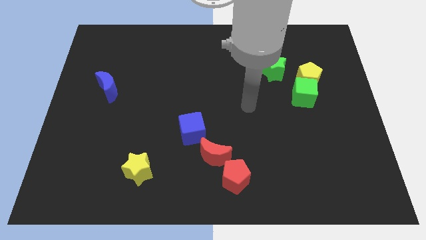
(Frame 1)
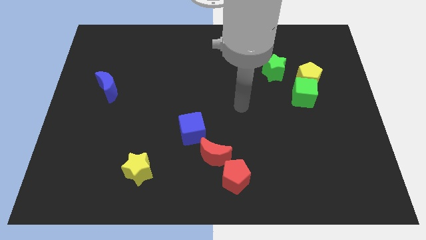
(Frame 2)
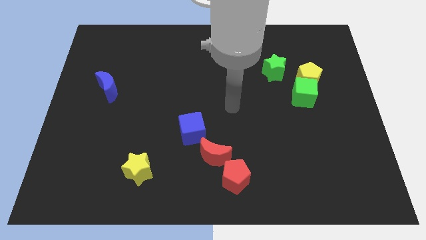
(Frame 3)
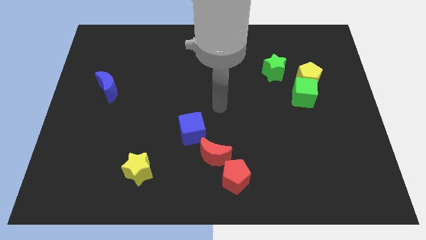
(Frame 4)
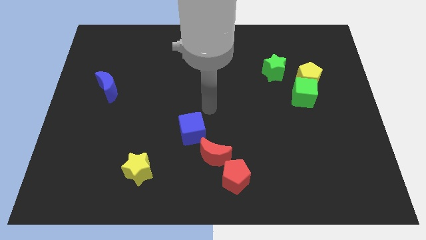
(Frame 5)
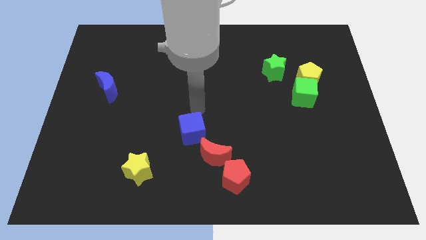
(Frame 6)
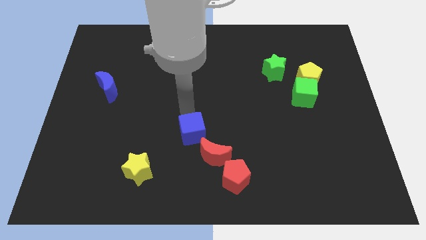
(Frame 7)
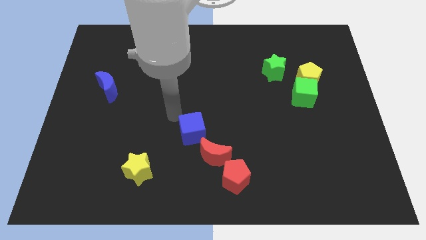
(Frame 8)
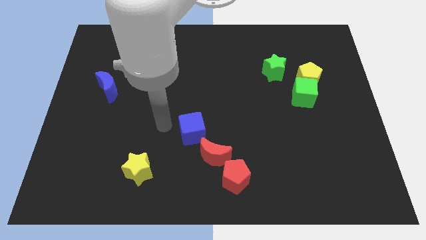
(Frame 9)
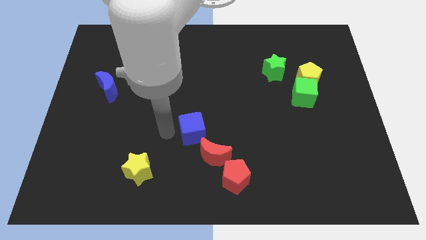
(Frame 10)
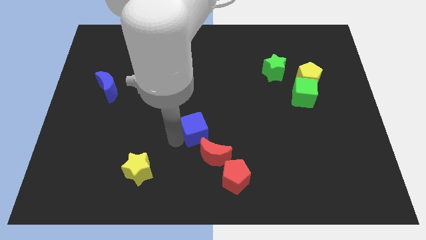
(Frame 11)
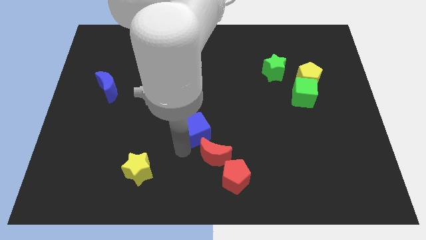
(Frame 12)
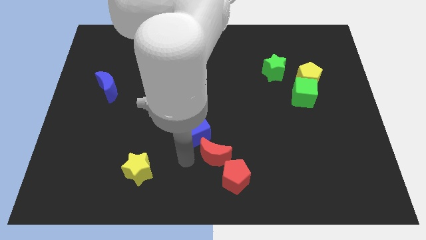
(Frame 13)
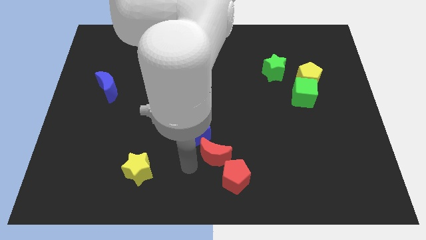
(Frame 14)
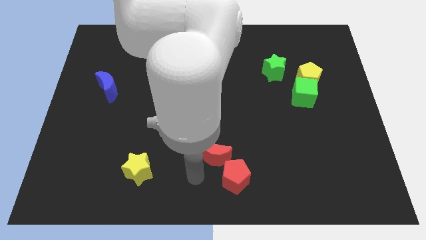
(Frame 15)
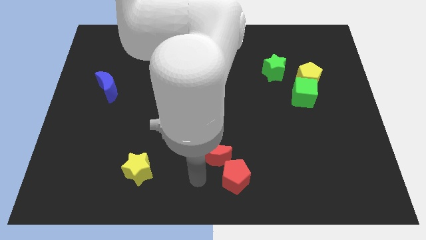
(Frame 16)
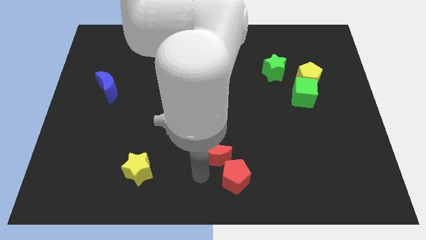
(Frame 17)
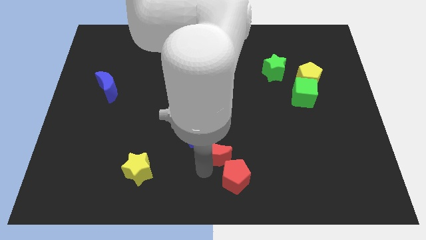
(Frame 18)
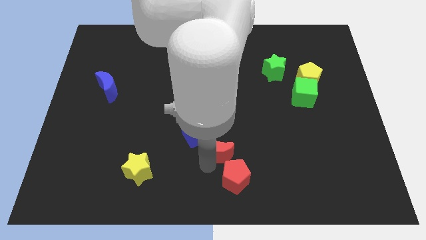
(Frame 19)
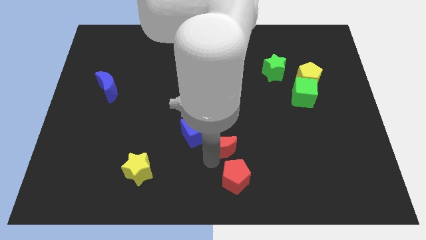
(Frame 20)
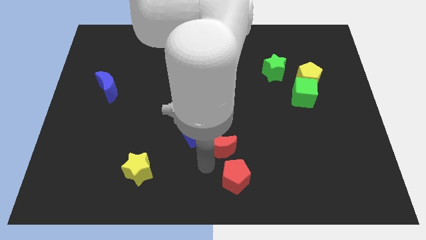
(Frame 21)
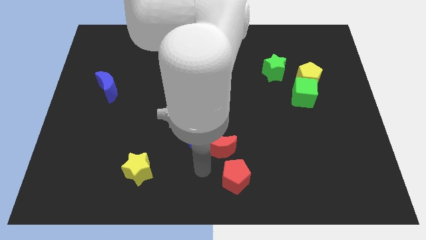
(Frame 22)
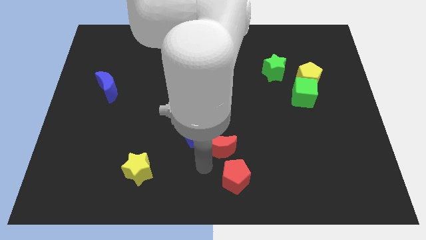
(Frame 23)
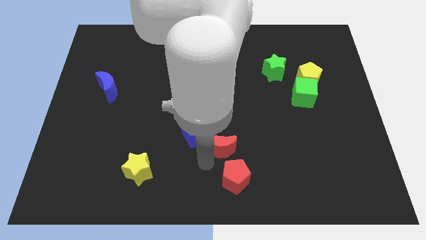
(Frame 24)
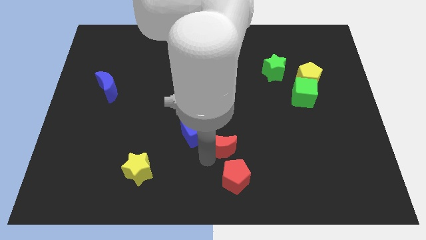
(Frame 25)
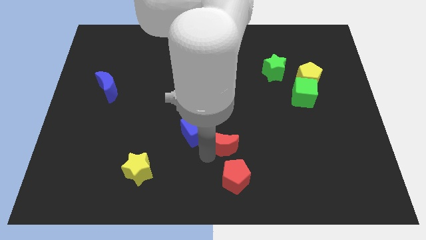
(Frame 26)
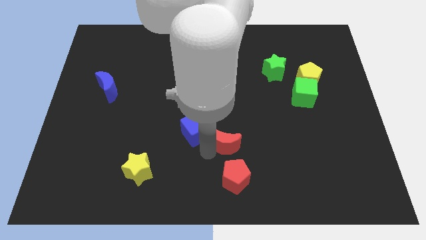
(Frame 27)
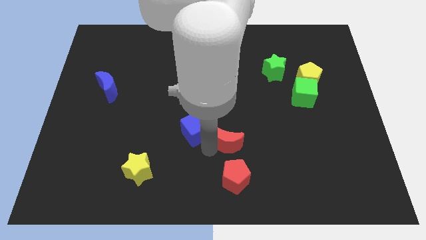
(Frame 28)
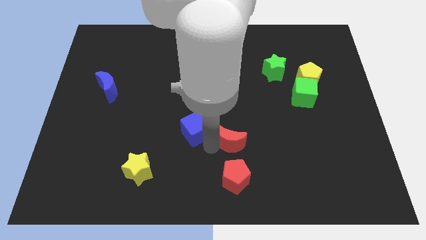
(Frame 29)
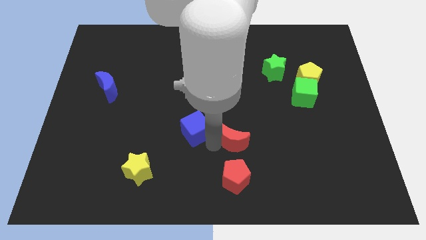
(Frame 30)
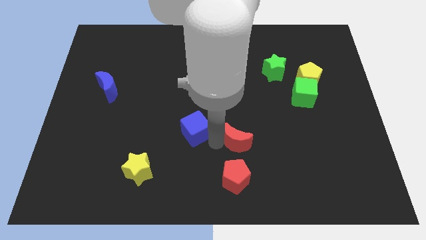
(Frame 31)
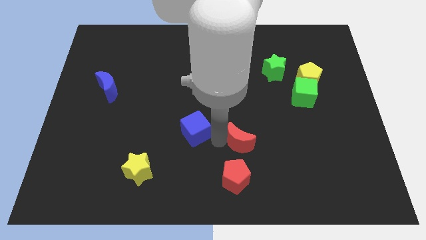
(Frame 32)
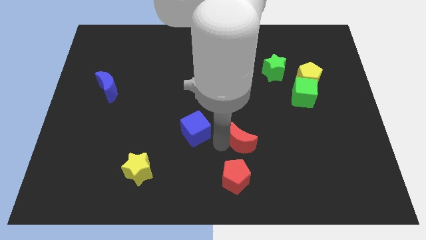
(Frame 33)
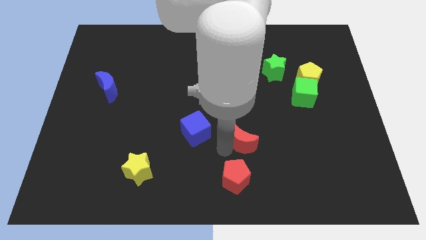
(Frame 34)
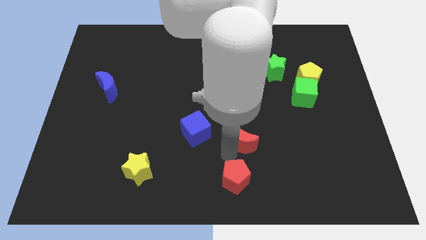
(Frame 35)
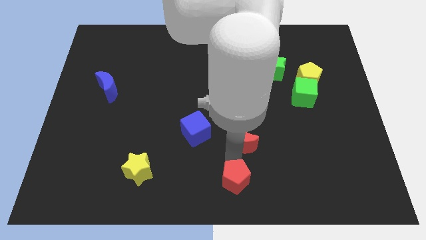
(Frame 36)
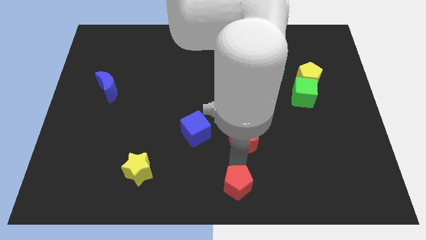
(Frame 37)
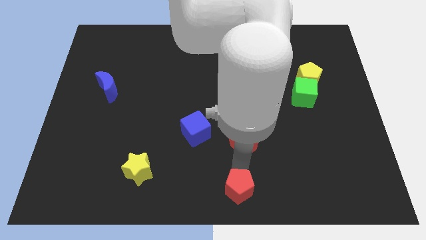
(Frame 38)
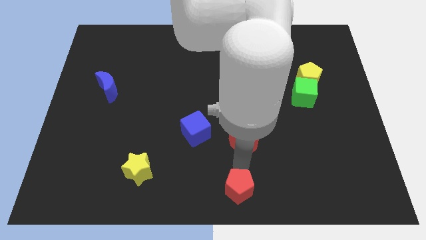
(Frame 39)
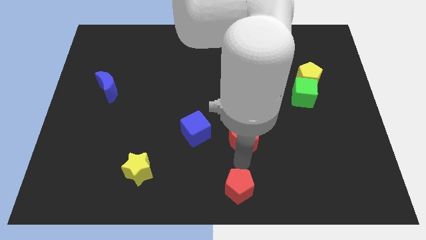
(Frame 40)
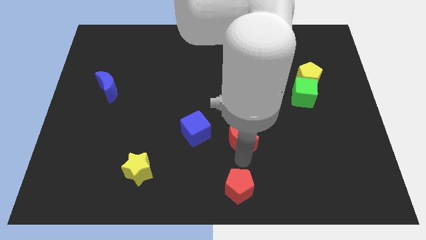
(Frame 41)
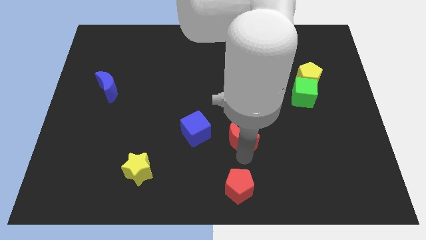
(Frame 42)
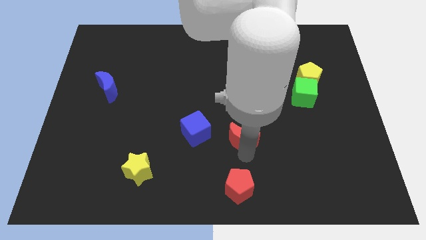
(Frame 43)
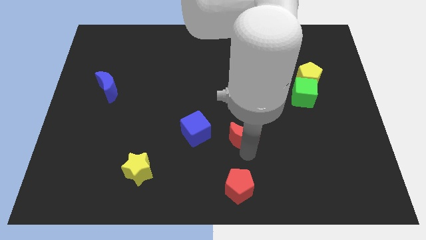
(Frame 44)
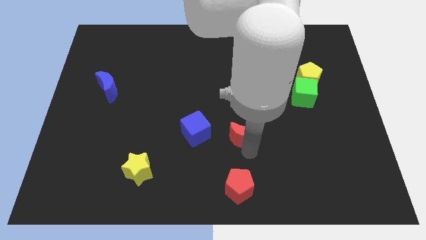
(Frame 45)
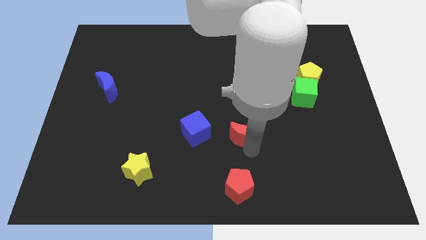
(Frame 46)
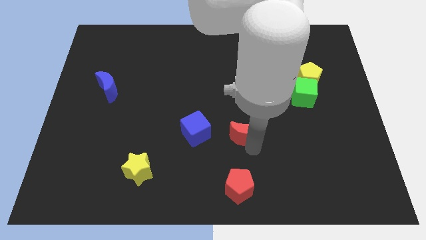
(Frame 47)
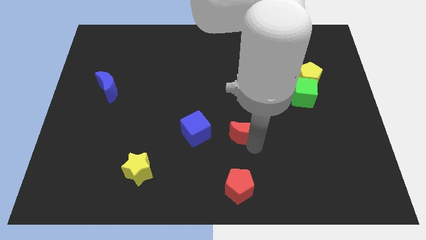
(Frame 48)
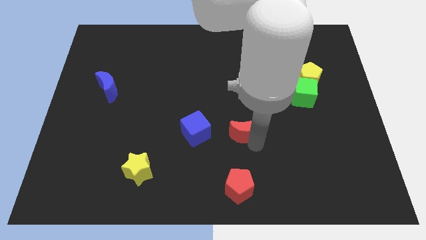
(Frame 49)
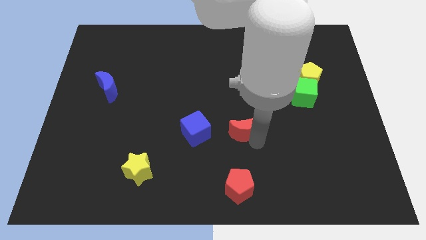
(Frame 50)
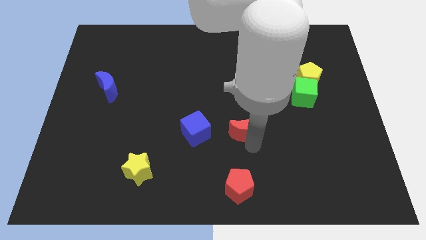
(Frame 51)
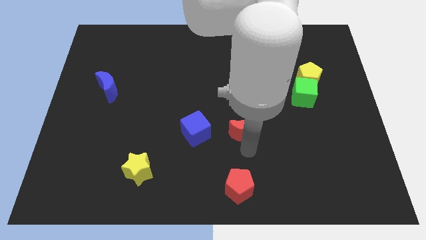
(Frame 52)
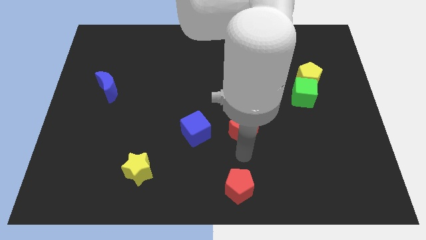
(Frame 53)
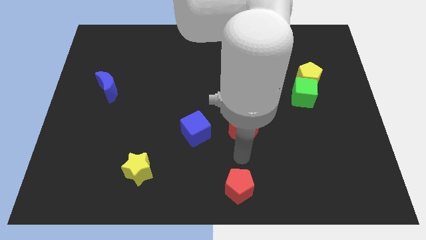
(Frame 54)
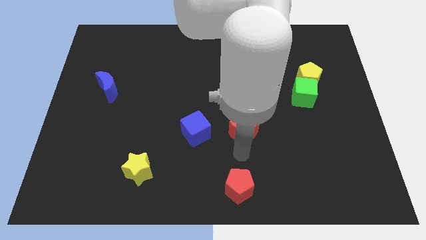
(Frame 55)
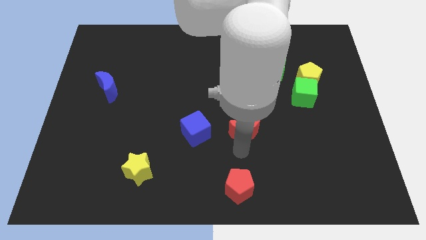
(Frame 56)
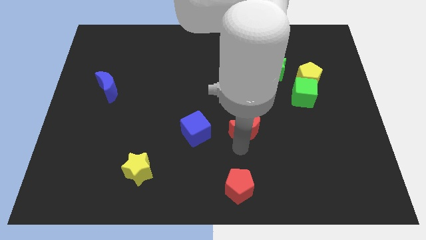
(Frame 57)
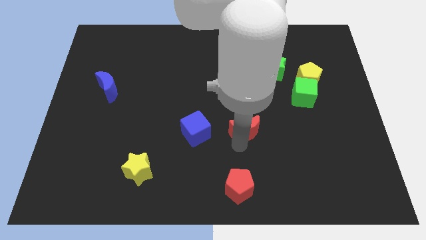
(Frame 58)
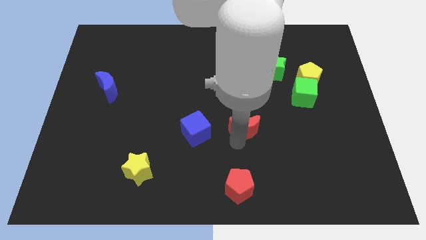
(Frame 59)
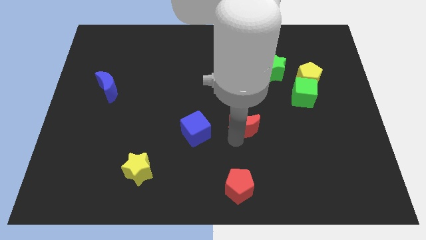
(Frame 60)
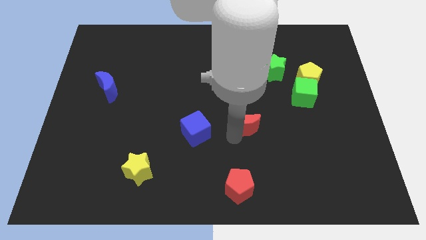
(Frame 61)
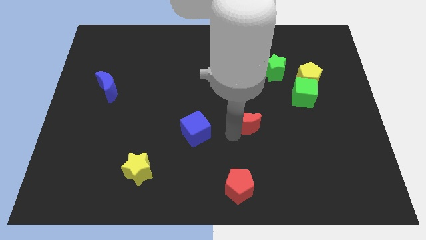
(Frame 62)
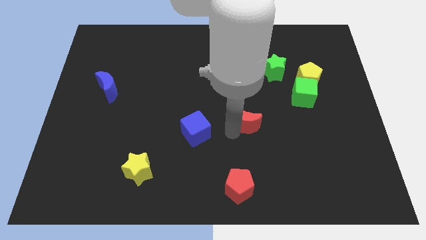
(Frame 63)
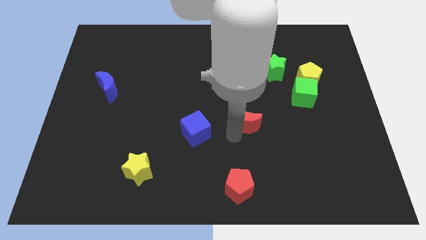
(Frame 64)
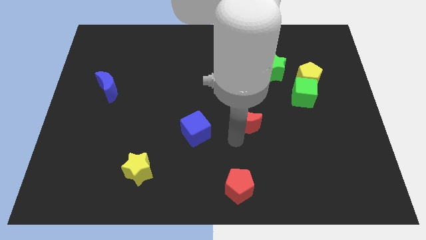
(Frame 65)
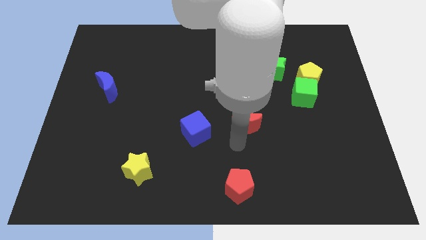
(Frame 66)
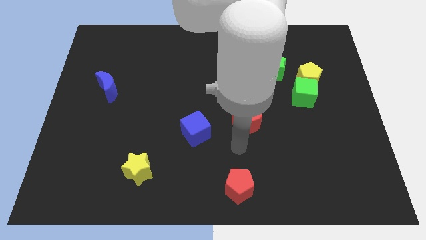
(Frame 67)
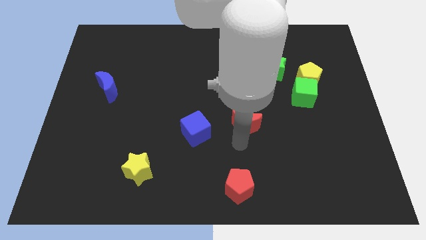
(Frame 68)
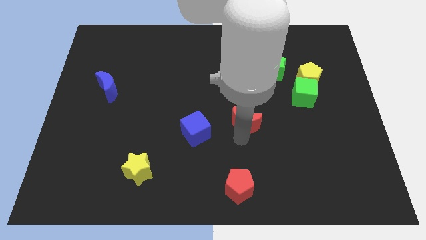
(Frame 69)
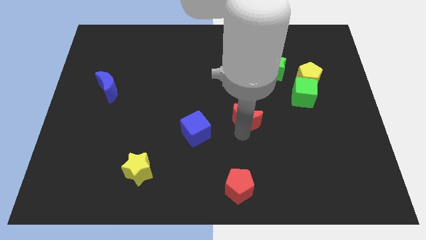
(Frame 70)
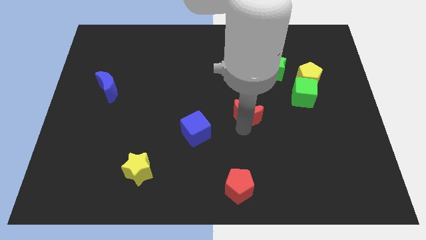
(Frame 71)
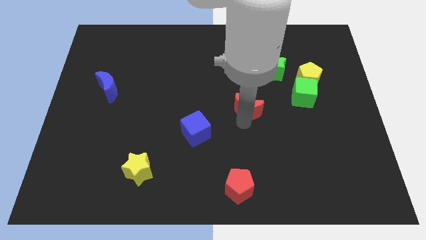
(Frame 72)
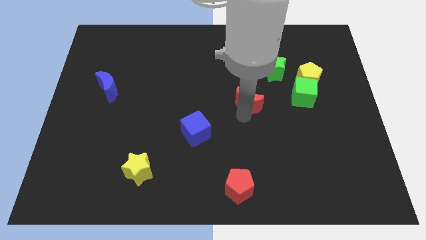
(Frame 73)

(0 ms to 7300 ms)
move the red moon to the left side of the green cube
